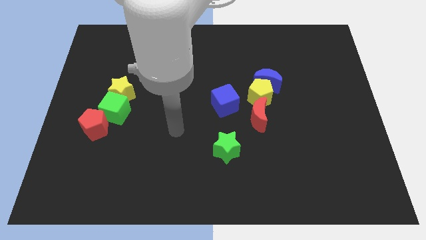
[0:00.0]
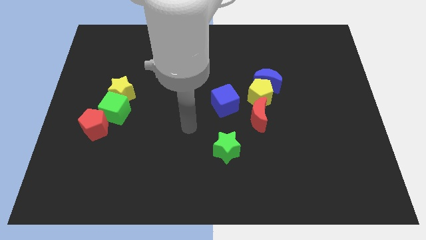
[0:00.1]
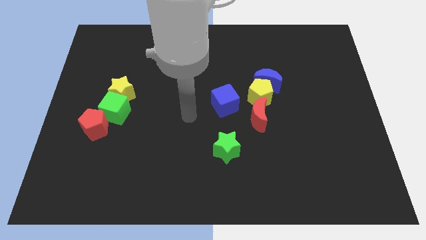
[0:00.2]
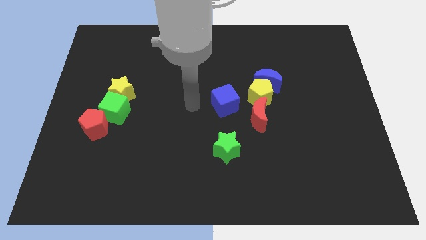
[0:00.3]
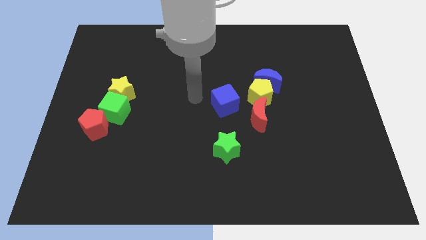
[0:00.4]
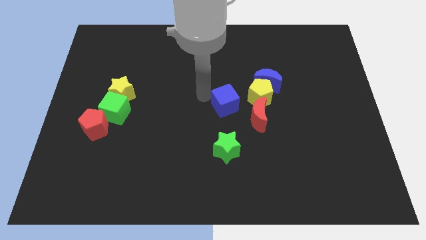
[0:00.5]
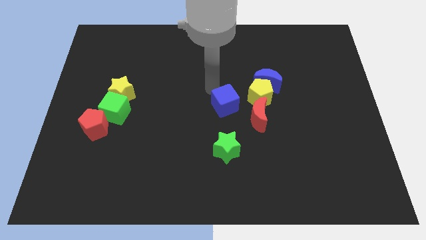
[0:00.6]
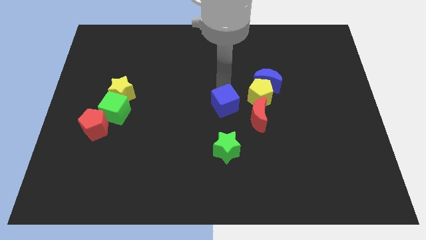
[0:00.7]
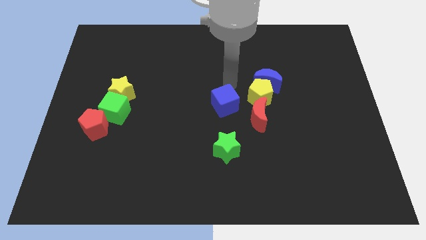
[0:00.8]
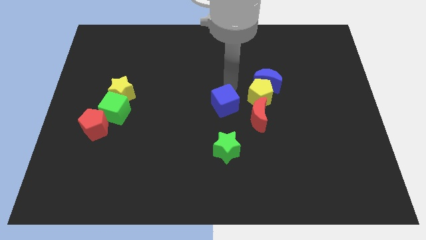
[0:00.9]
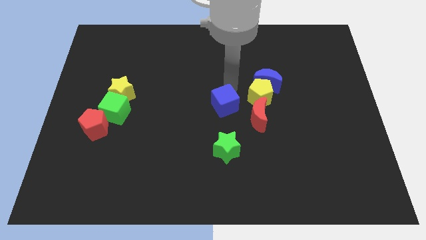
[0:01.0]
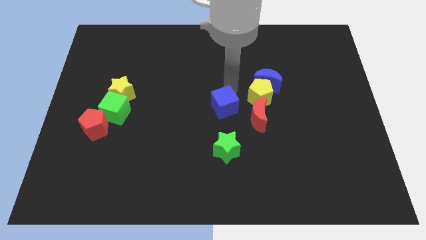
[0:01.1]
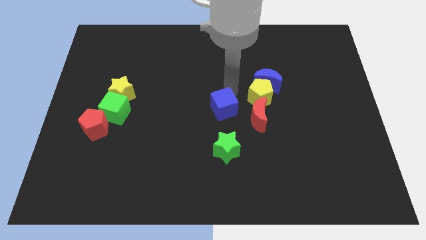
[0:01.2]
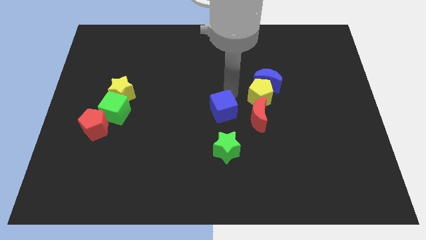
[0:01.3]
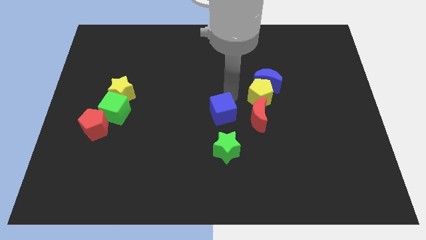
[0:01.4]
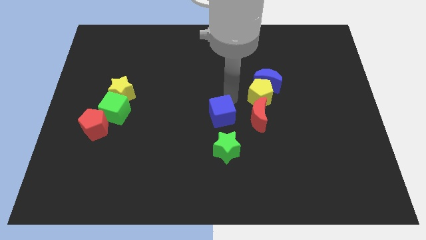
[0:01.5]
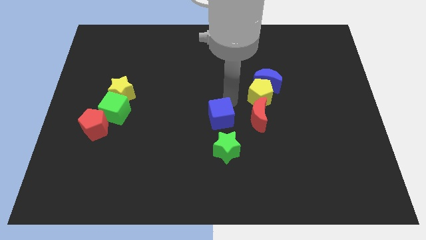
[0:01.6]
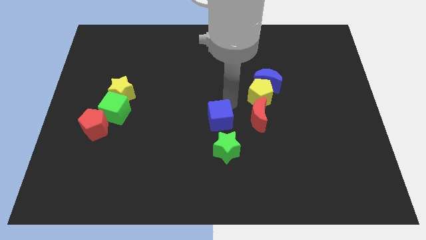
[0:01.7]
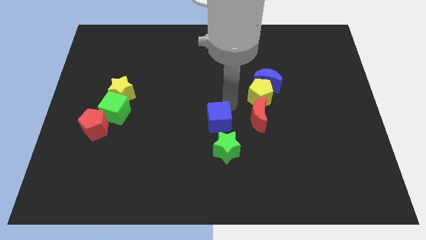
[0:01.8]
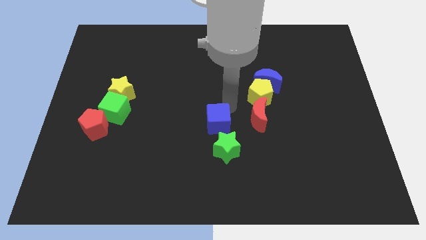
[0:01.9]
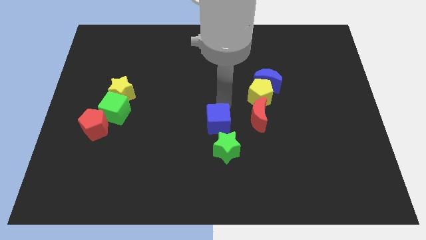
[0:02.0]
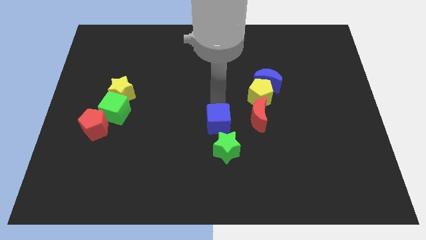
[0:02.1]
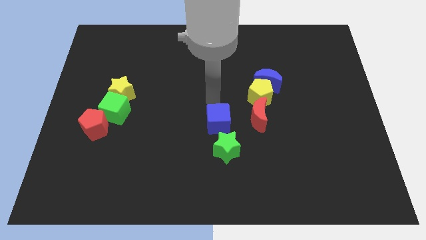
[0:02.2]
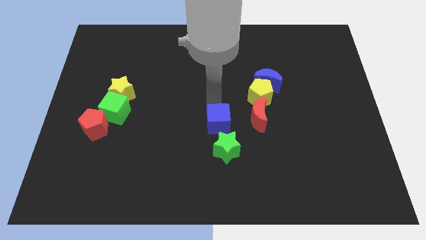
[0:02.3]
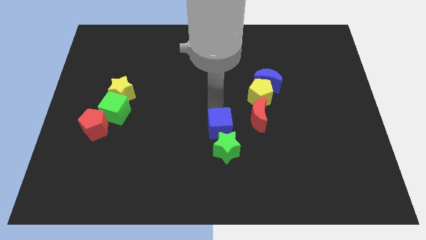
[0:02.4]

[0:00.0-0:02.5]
move the blue cube towards the green star

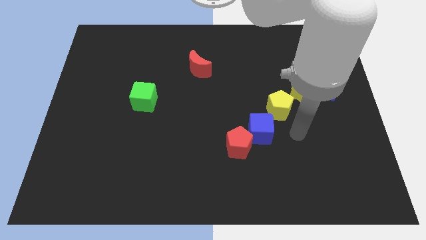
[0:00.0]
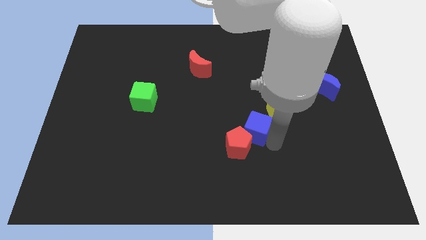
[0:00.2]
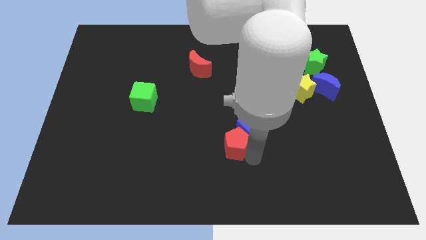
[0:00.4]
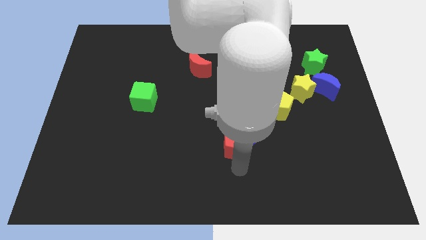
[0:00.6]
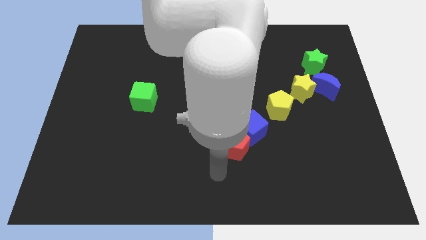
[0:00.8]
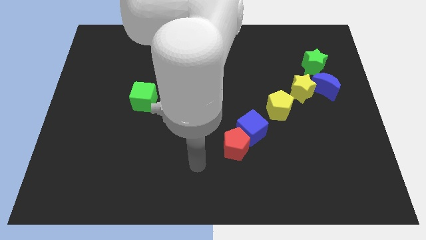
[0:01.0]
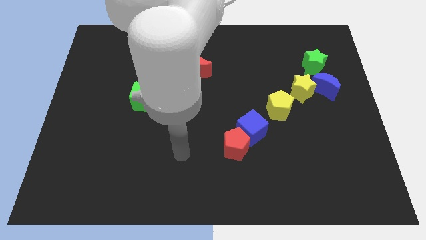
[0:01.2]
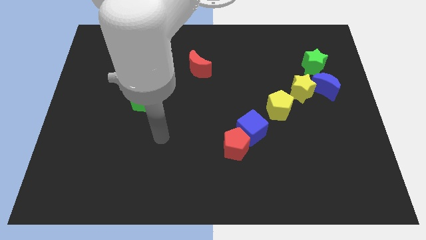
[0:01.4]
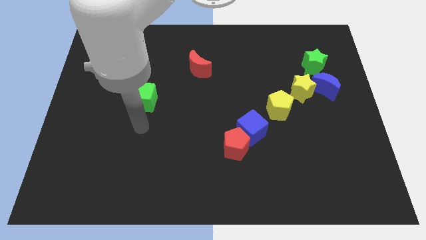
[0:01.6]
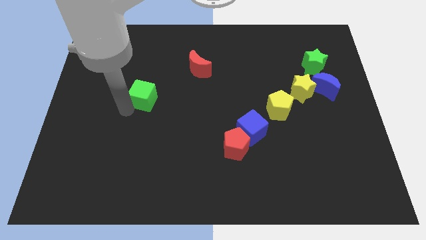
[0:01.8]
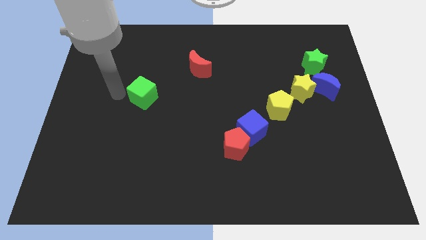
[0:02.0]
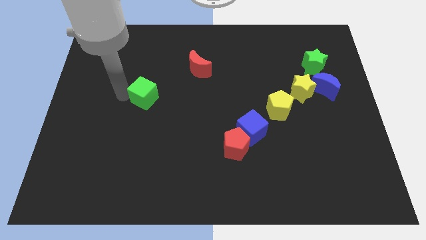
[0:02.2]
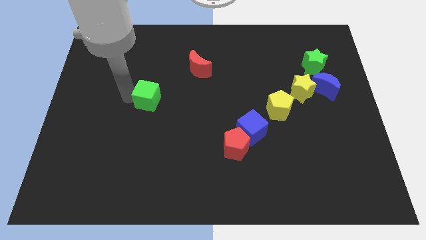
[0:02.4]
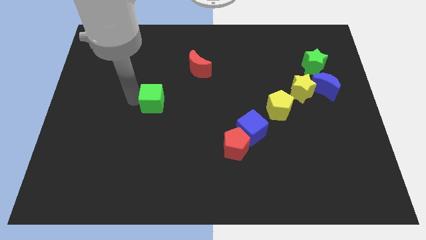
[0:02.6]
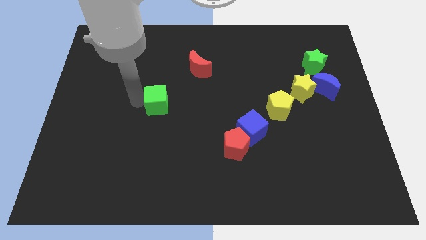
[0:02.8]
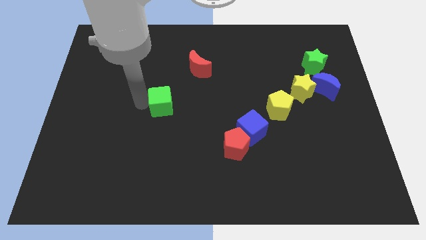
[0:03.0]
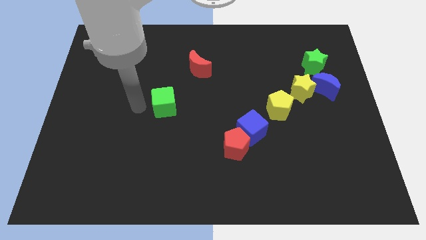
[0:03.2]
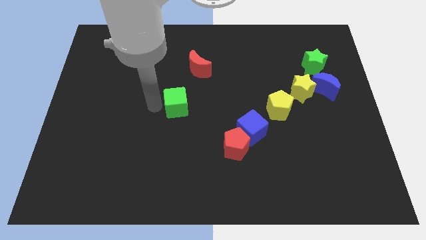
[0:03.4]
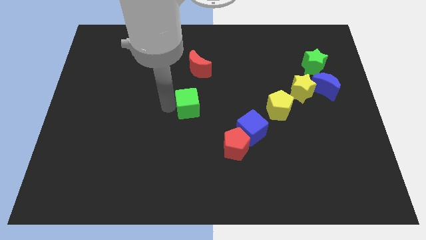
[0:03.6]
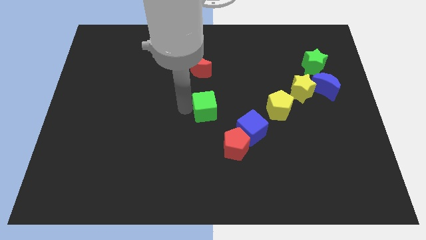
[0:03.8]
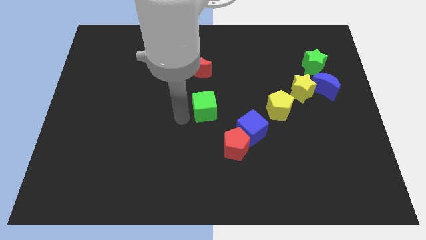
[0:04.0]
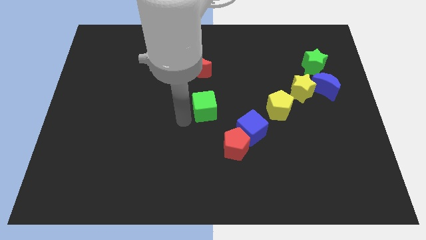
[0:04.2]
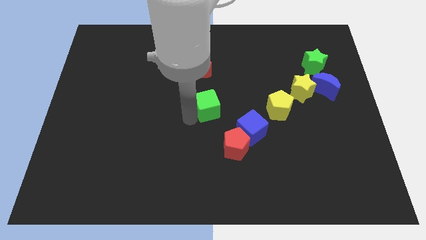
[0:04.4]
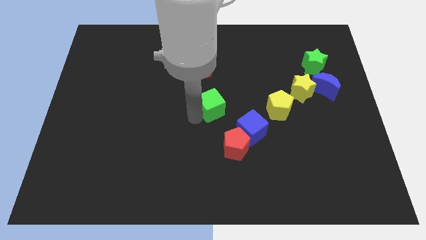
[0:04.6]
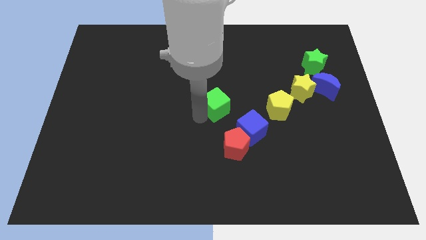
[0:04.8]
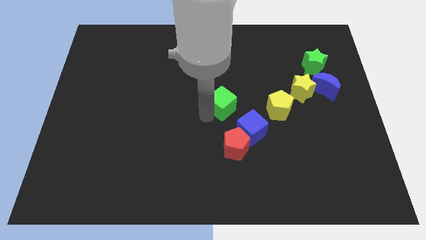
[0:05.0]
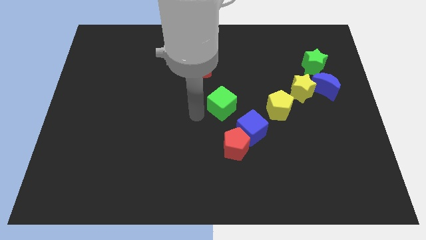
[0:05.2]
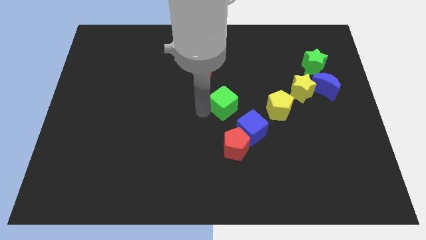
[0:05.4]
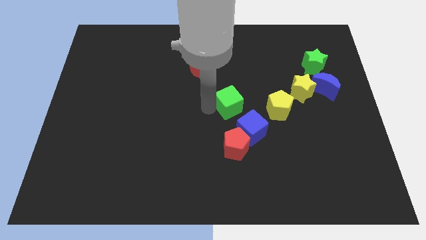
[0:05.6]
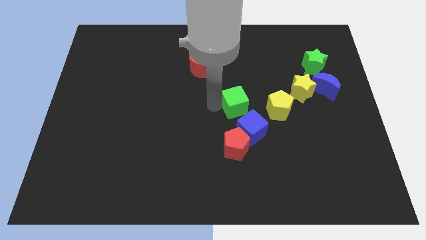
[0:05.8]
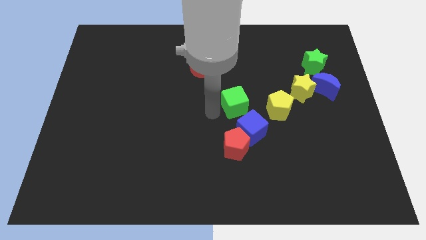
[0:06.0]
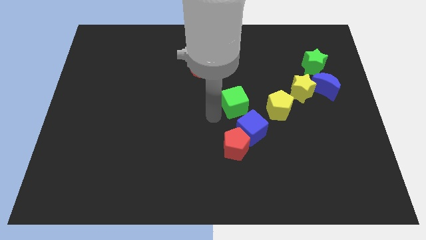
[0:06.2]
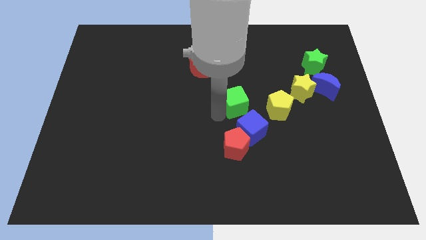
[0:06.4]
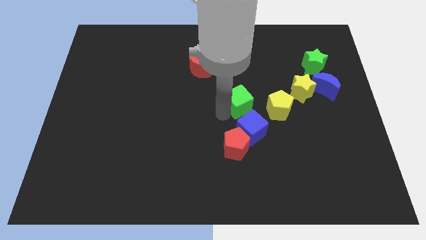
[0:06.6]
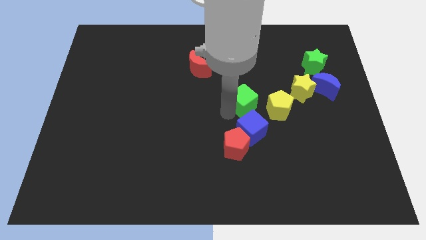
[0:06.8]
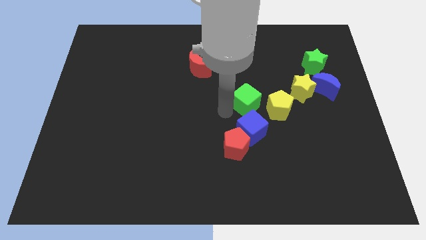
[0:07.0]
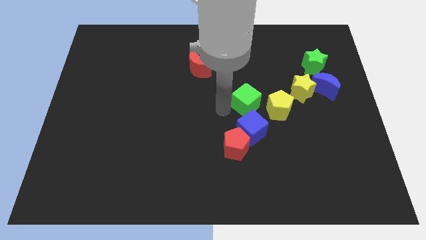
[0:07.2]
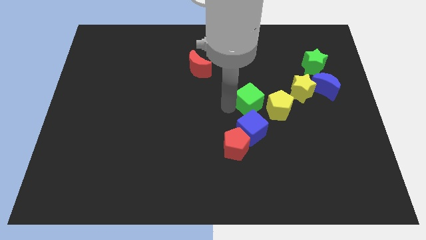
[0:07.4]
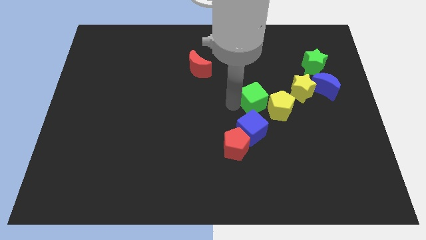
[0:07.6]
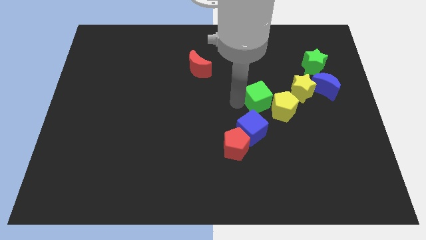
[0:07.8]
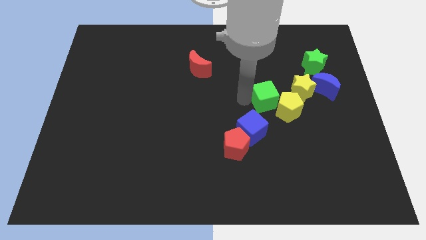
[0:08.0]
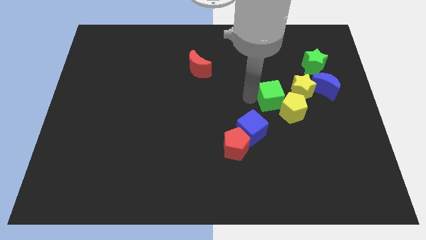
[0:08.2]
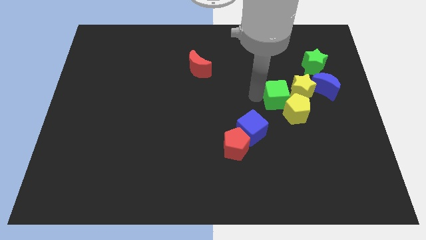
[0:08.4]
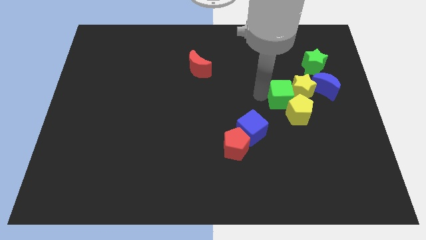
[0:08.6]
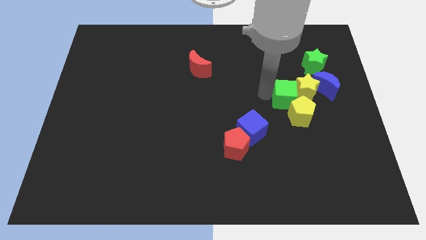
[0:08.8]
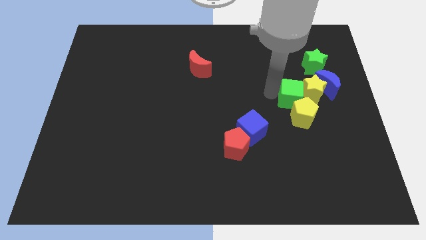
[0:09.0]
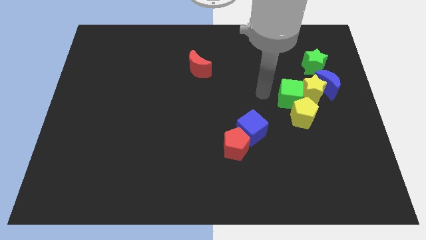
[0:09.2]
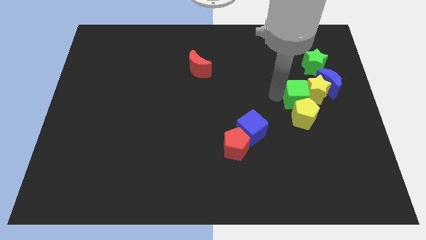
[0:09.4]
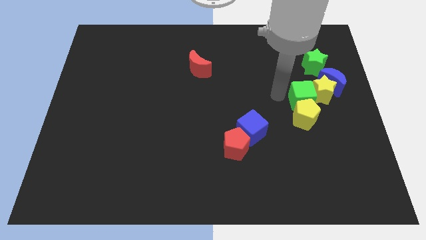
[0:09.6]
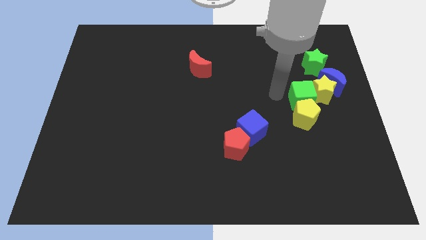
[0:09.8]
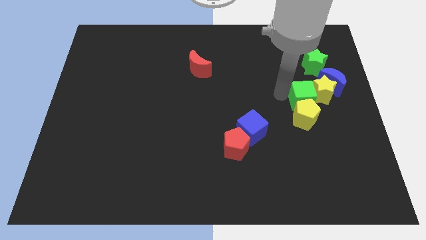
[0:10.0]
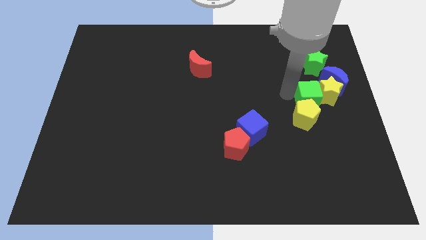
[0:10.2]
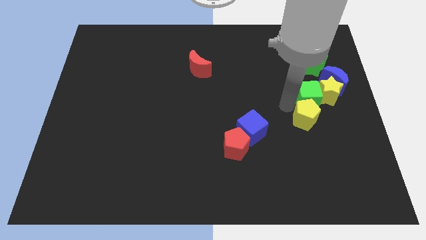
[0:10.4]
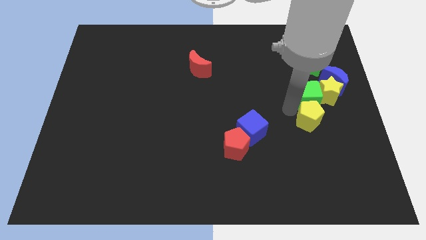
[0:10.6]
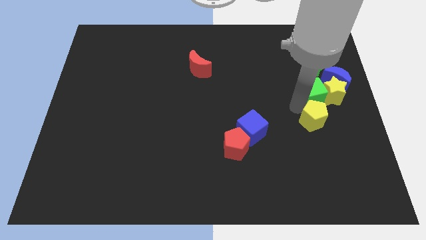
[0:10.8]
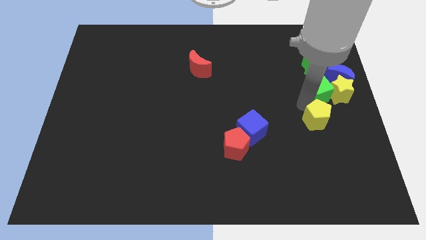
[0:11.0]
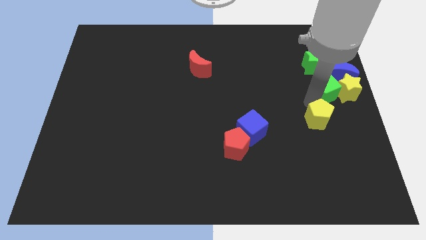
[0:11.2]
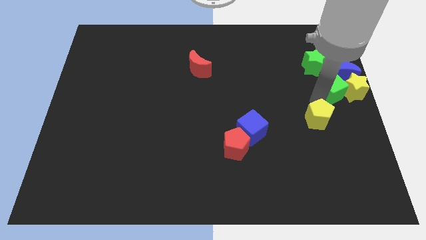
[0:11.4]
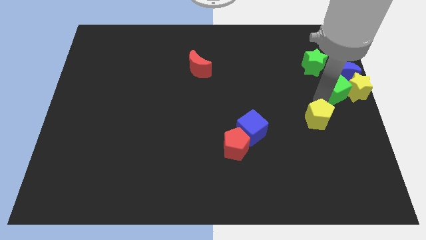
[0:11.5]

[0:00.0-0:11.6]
push the green cube next to the blue moon

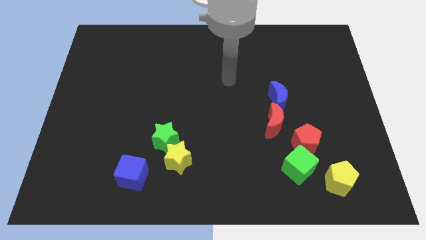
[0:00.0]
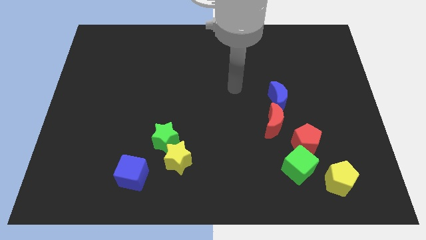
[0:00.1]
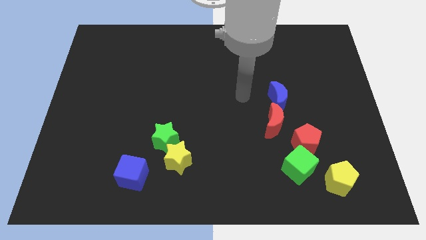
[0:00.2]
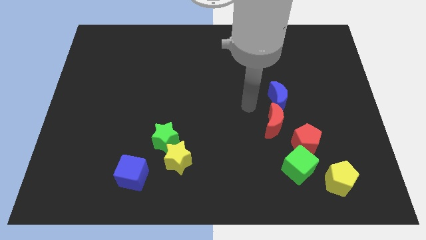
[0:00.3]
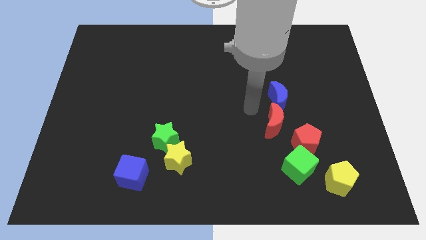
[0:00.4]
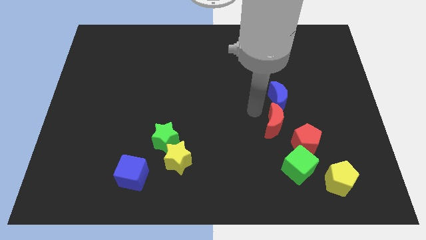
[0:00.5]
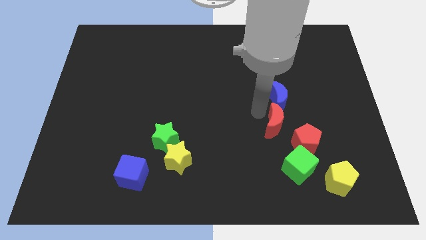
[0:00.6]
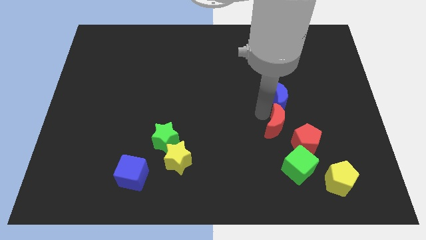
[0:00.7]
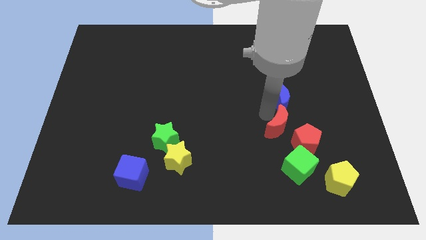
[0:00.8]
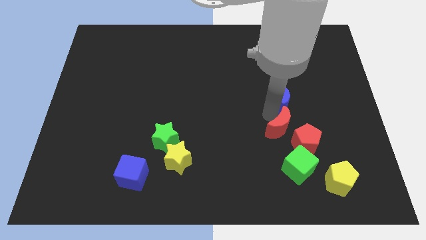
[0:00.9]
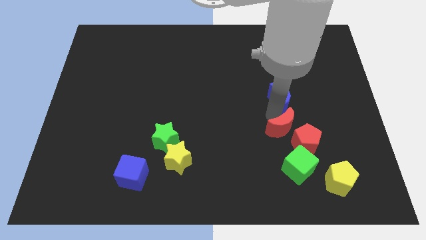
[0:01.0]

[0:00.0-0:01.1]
put the red moon towards the red pentagon
